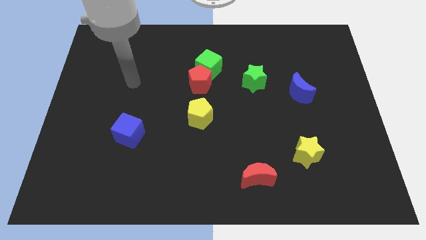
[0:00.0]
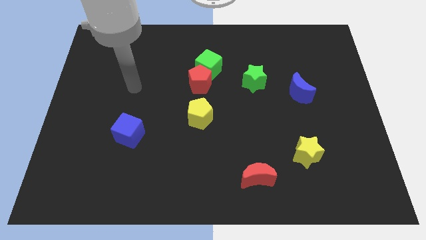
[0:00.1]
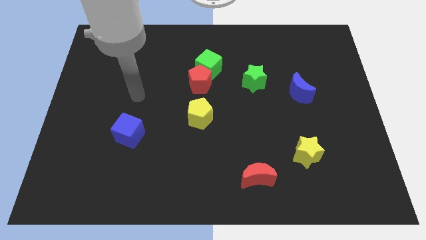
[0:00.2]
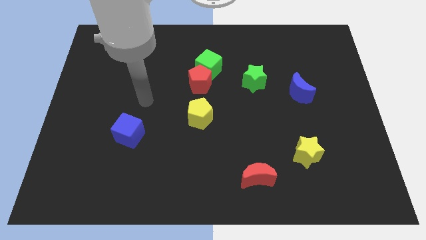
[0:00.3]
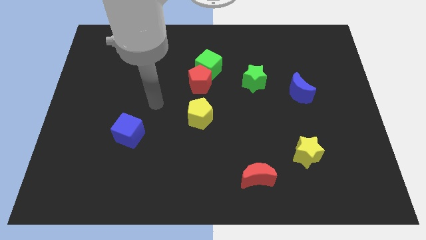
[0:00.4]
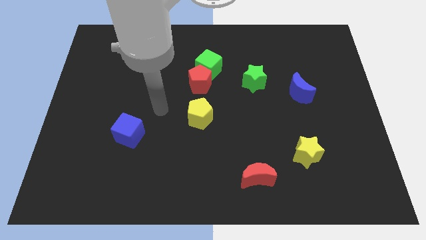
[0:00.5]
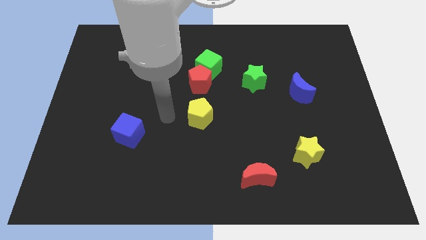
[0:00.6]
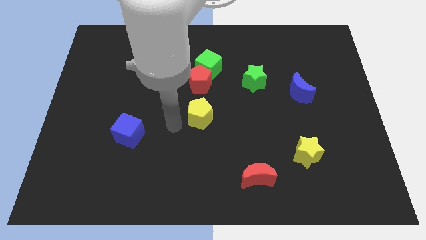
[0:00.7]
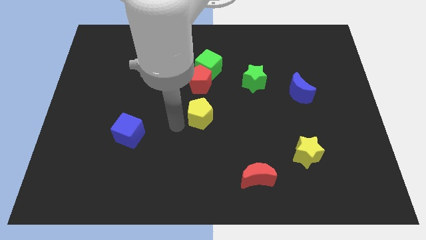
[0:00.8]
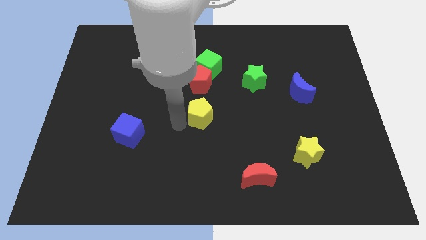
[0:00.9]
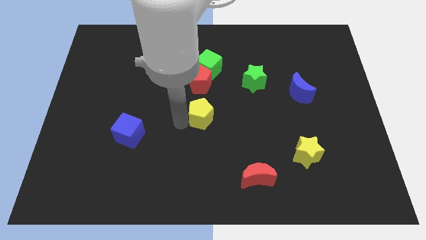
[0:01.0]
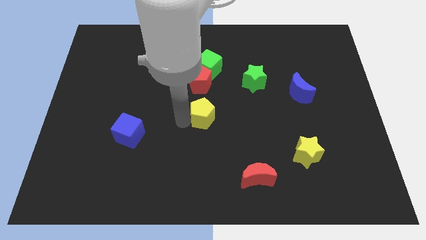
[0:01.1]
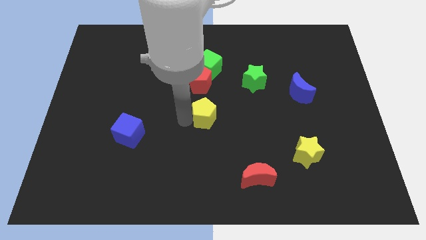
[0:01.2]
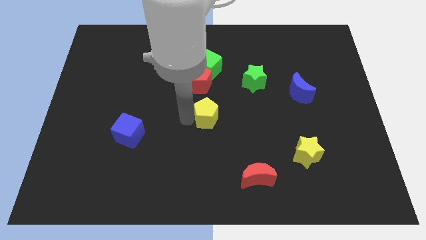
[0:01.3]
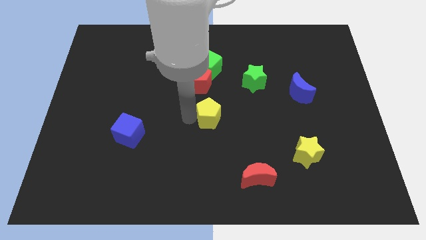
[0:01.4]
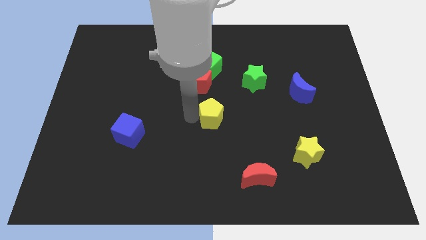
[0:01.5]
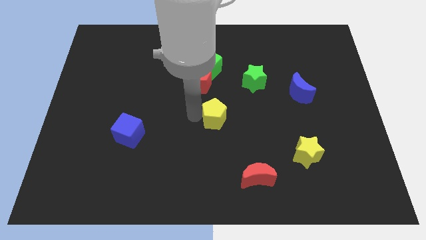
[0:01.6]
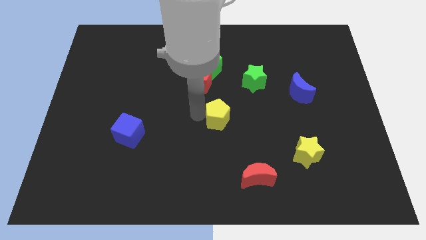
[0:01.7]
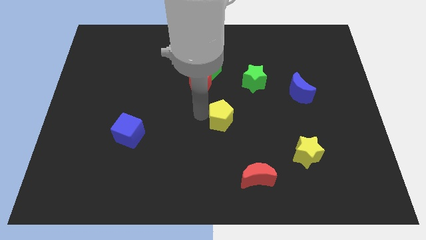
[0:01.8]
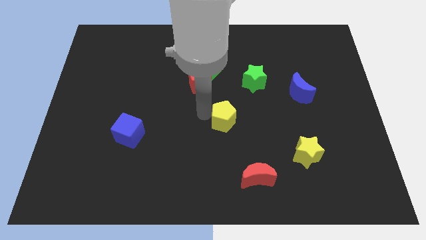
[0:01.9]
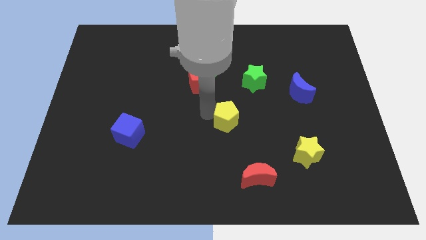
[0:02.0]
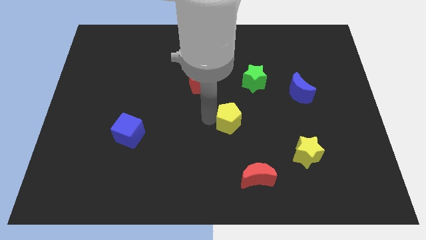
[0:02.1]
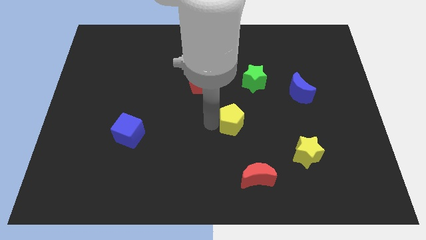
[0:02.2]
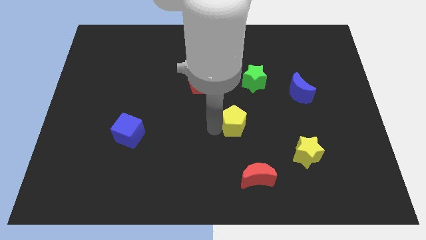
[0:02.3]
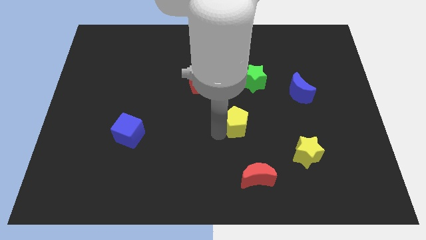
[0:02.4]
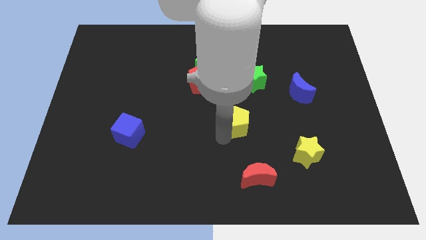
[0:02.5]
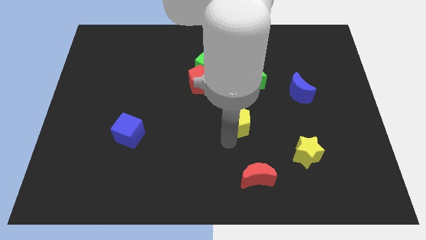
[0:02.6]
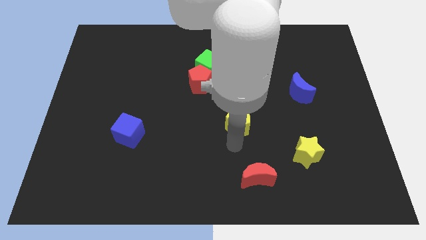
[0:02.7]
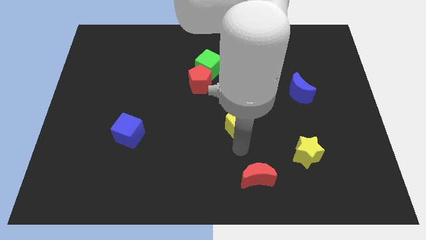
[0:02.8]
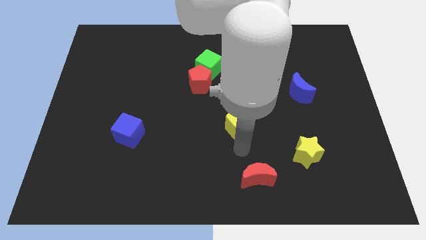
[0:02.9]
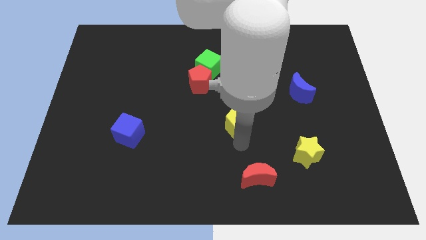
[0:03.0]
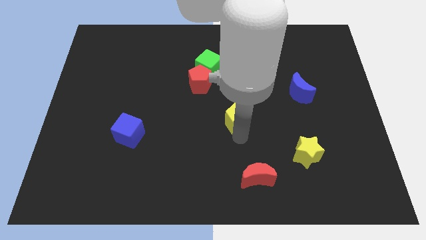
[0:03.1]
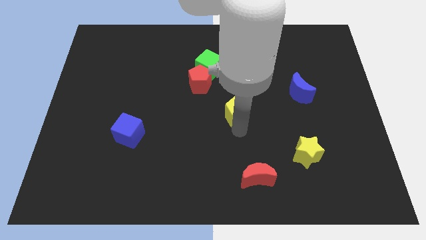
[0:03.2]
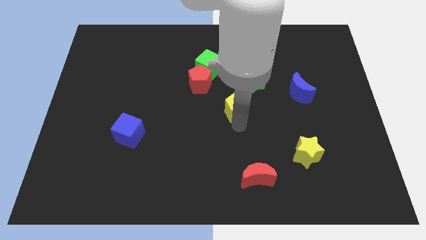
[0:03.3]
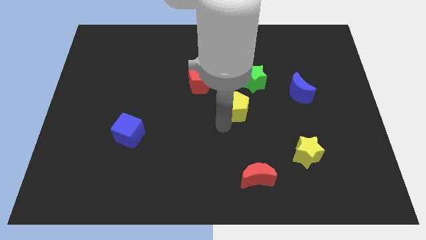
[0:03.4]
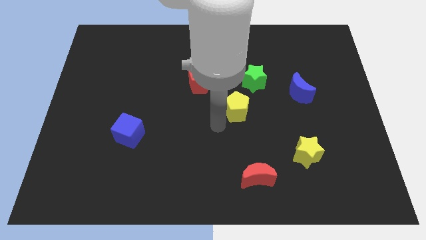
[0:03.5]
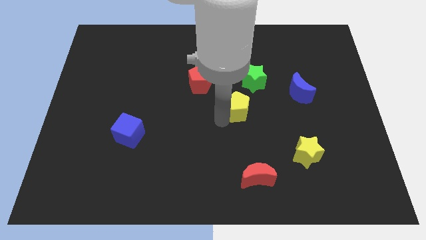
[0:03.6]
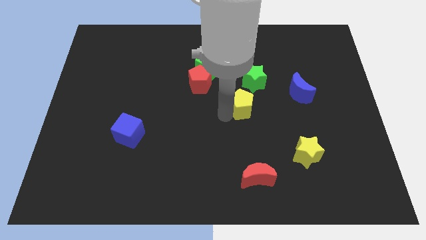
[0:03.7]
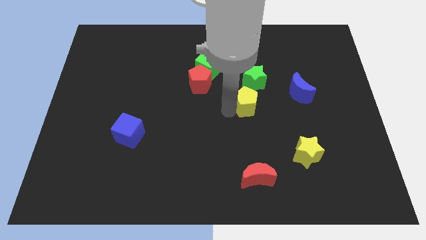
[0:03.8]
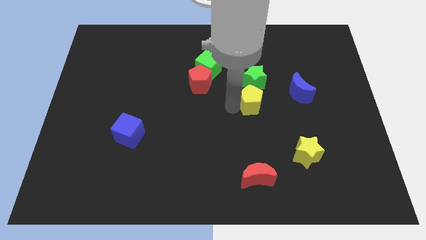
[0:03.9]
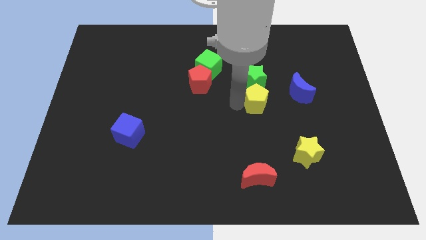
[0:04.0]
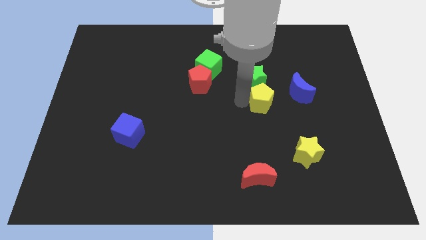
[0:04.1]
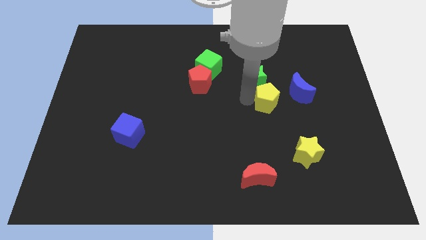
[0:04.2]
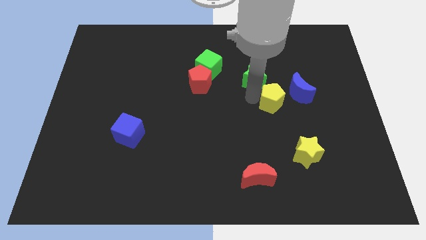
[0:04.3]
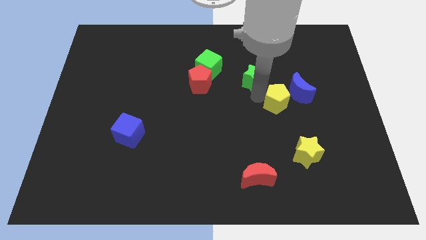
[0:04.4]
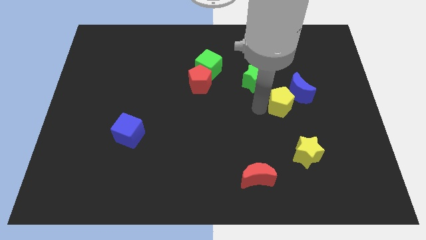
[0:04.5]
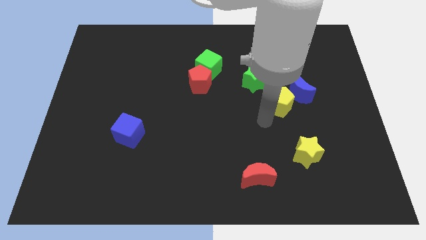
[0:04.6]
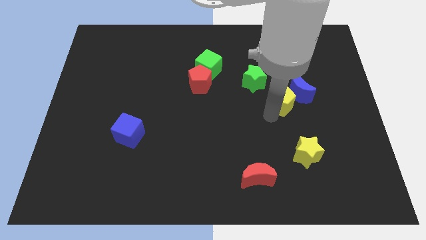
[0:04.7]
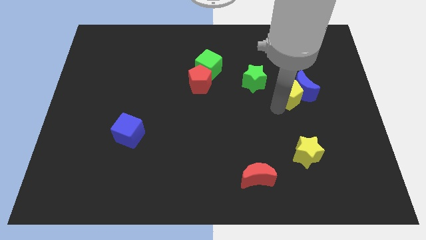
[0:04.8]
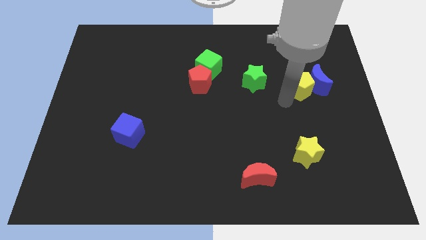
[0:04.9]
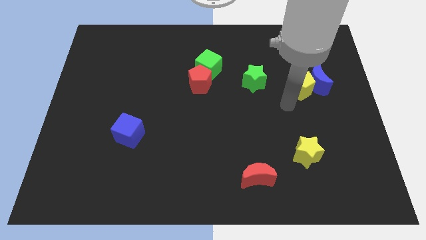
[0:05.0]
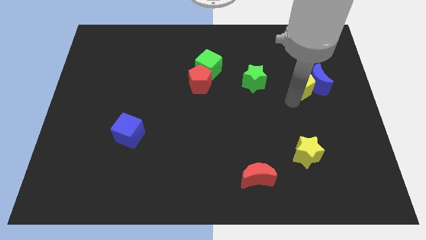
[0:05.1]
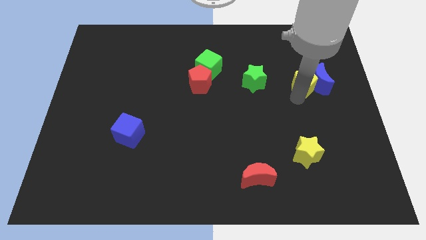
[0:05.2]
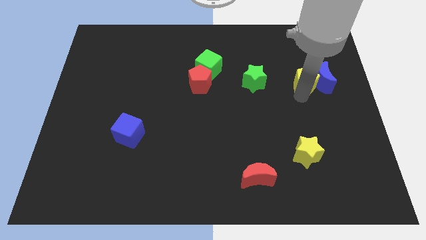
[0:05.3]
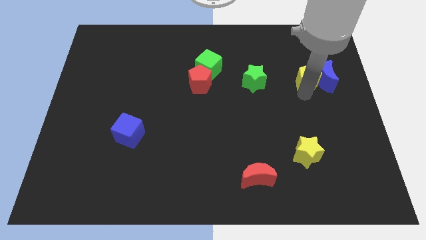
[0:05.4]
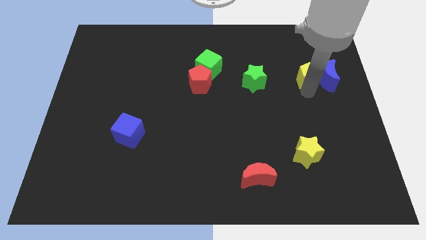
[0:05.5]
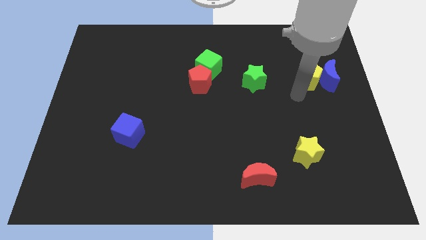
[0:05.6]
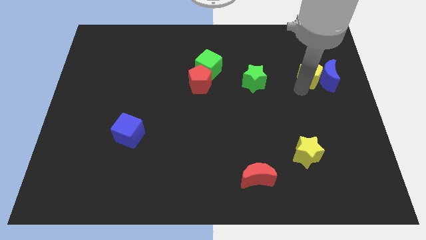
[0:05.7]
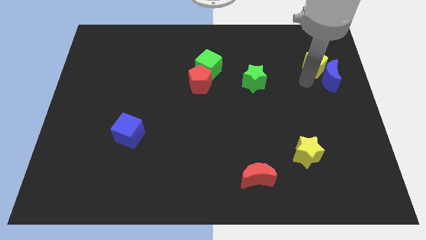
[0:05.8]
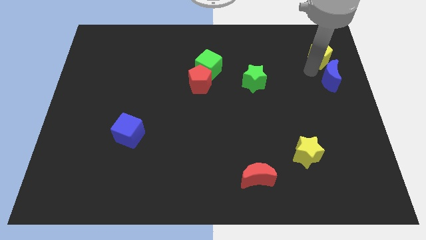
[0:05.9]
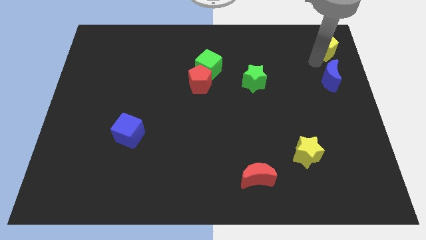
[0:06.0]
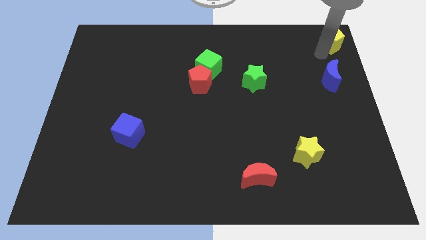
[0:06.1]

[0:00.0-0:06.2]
push the yellow pentagon to the top right of the board

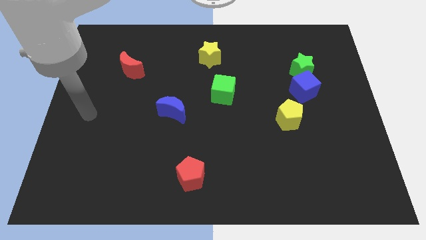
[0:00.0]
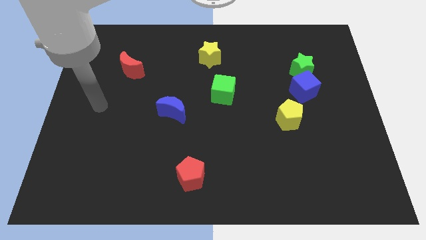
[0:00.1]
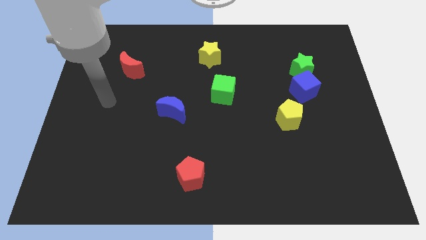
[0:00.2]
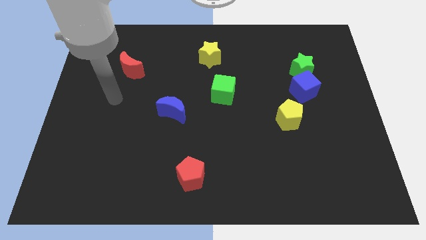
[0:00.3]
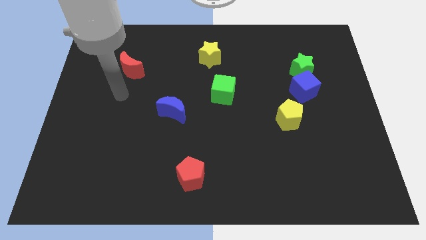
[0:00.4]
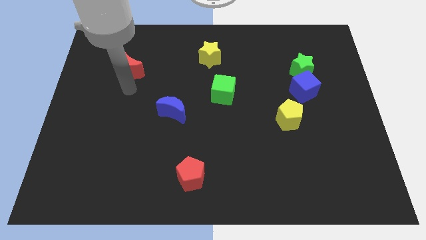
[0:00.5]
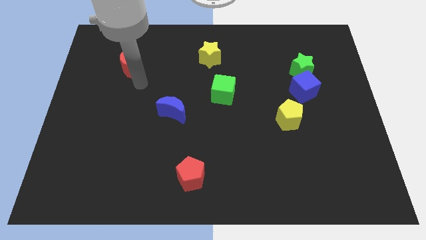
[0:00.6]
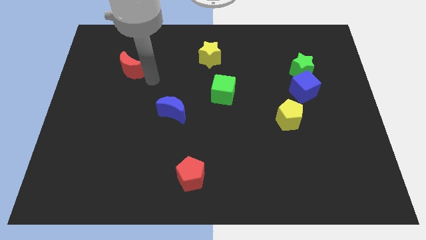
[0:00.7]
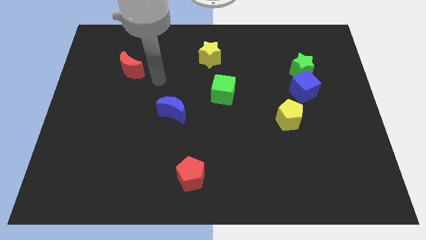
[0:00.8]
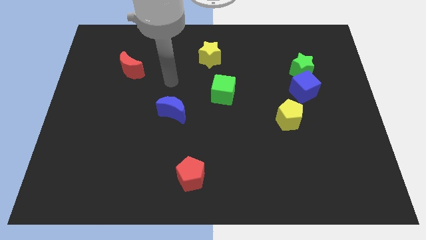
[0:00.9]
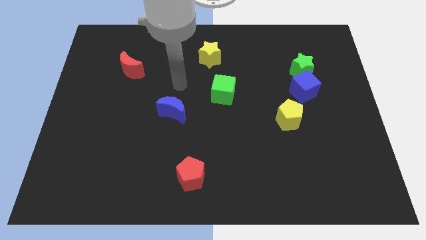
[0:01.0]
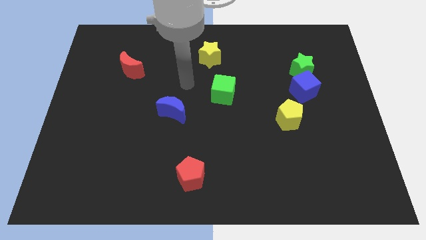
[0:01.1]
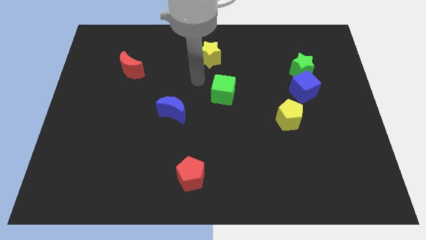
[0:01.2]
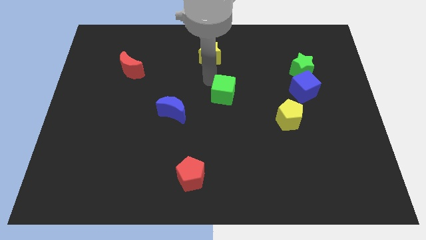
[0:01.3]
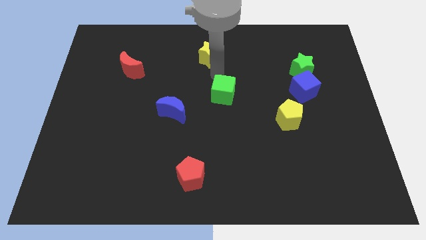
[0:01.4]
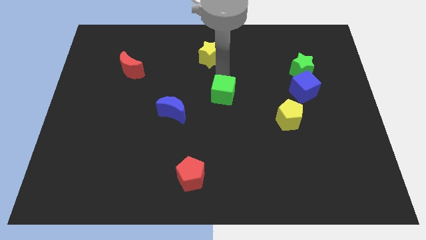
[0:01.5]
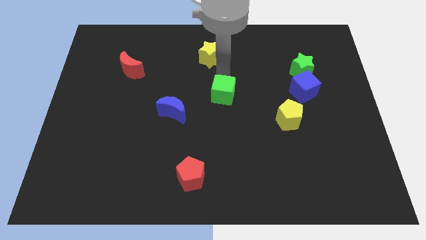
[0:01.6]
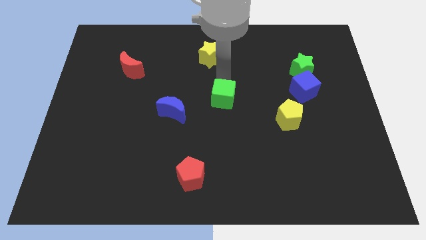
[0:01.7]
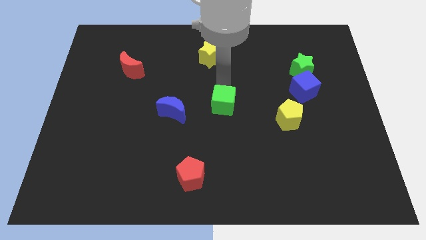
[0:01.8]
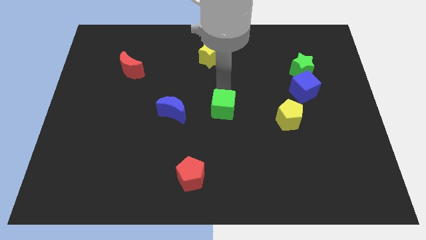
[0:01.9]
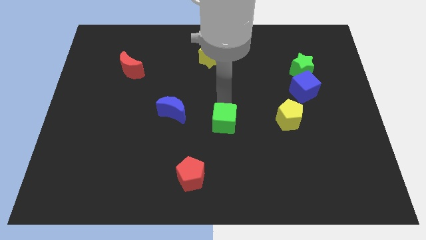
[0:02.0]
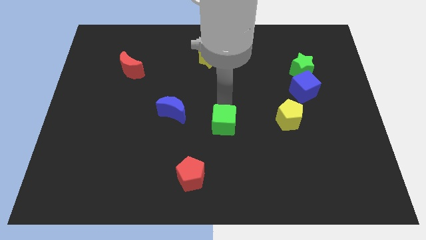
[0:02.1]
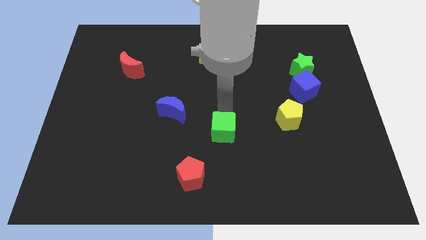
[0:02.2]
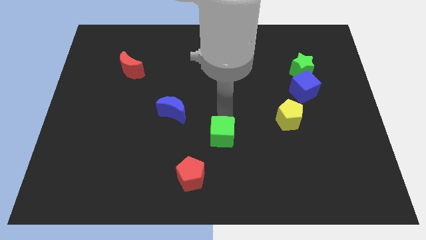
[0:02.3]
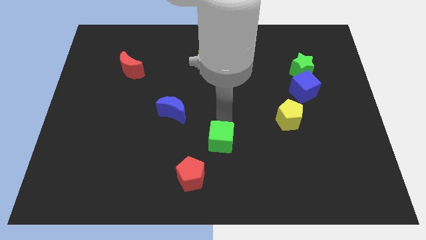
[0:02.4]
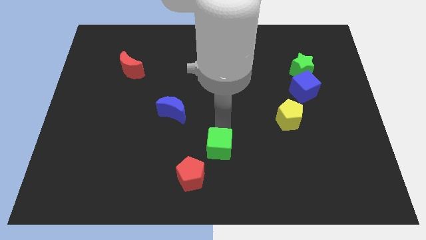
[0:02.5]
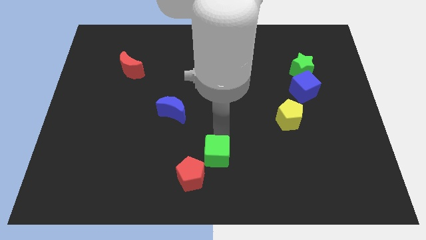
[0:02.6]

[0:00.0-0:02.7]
slide the green cube to the bottom
